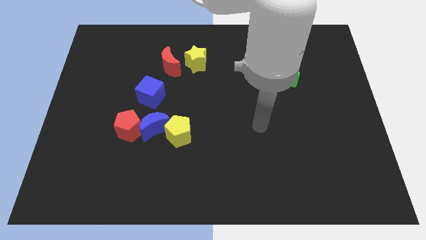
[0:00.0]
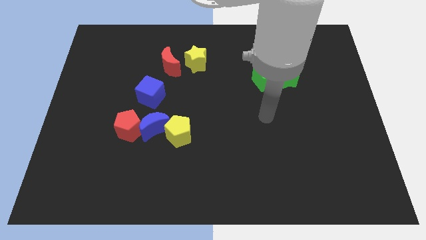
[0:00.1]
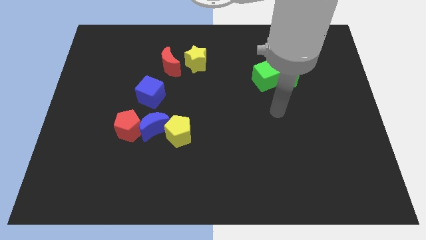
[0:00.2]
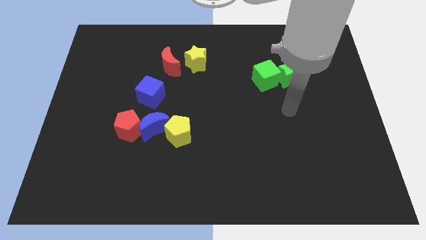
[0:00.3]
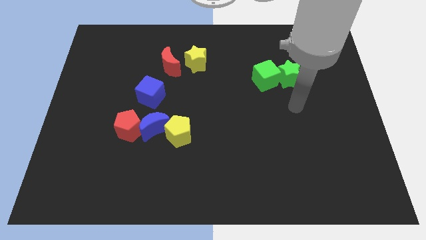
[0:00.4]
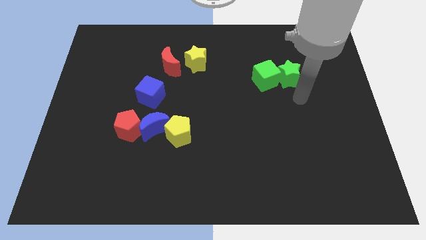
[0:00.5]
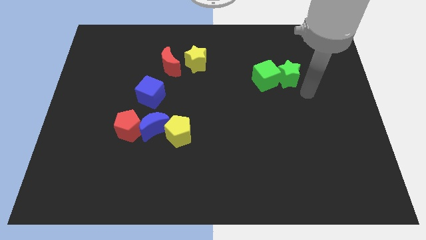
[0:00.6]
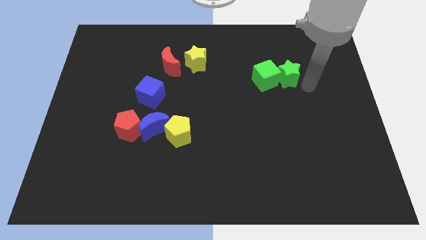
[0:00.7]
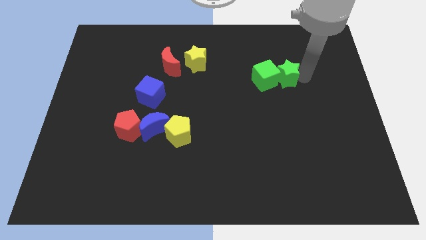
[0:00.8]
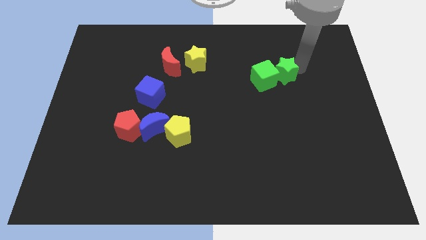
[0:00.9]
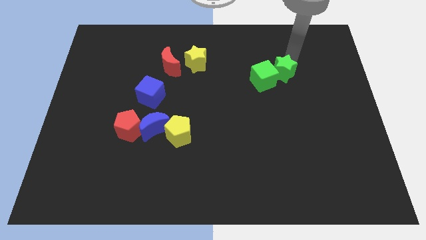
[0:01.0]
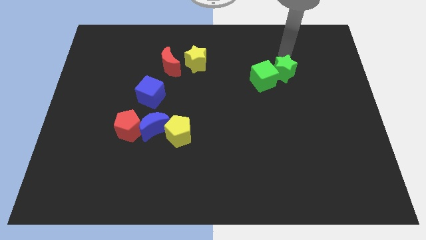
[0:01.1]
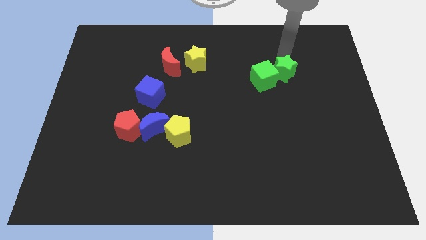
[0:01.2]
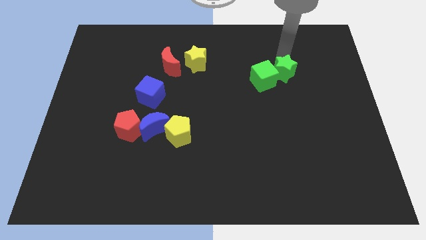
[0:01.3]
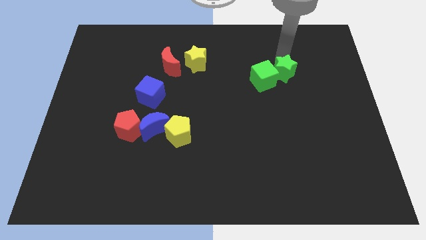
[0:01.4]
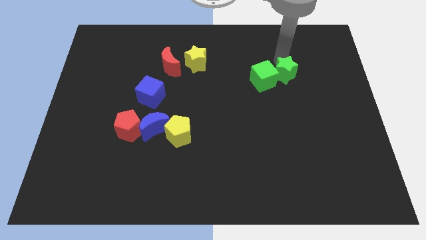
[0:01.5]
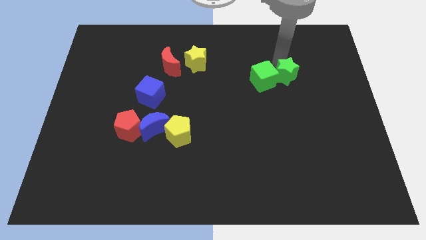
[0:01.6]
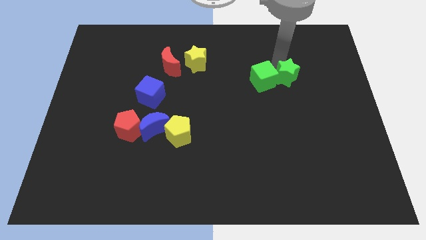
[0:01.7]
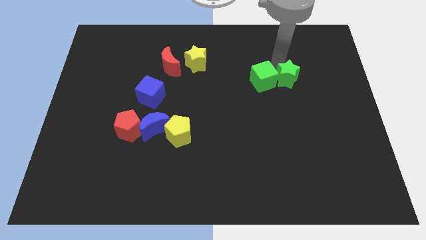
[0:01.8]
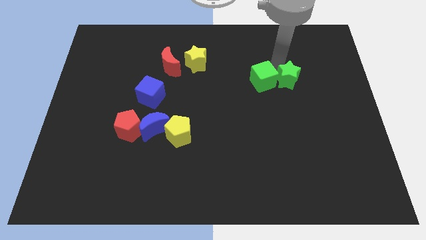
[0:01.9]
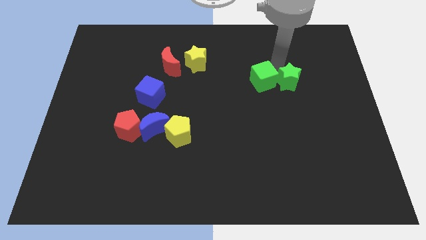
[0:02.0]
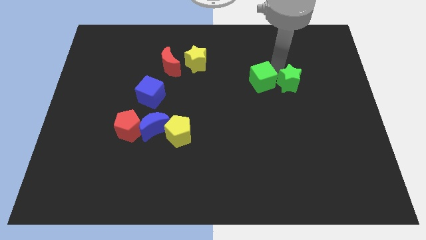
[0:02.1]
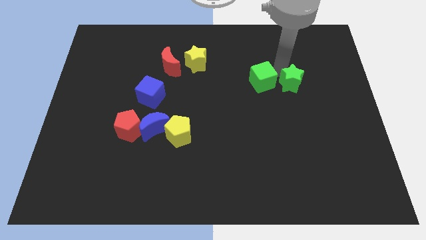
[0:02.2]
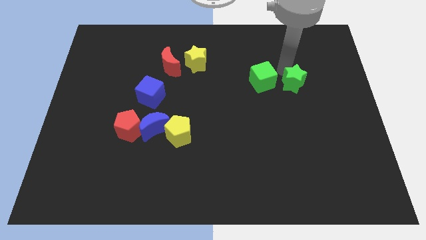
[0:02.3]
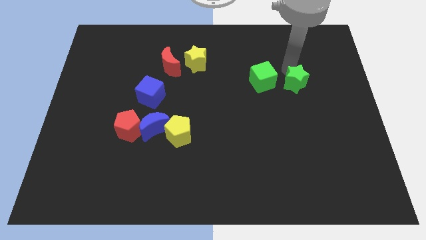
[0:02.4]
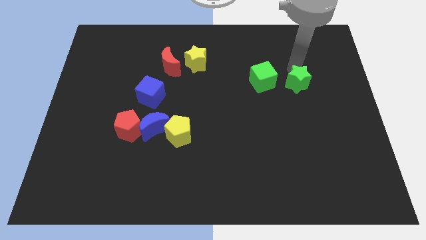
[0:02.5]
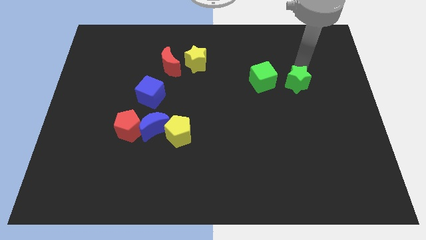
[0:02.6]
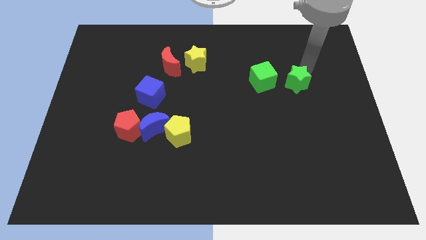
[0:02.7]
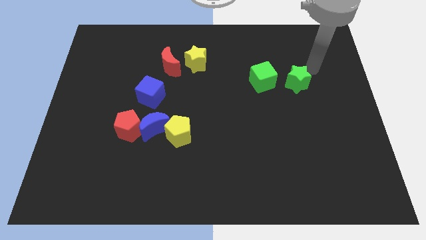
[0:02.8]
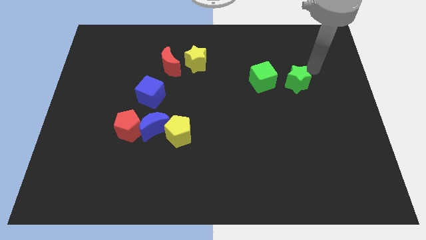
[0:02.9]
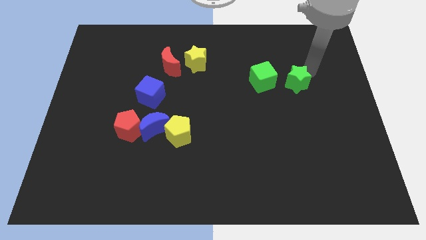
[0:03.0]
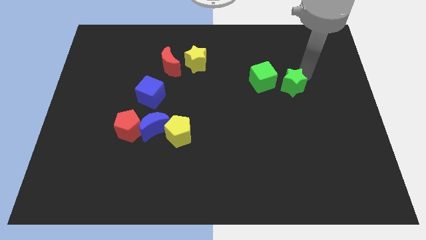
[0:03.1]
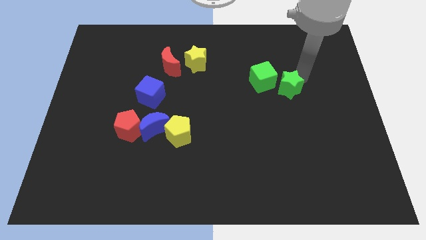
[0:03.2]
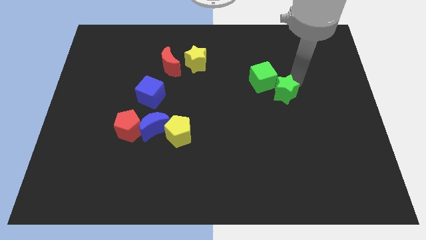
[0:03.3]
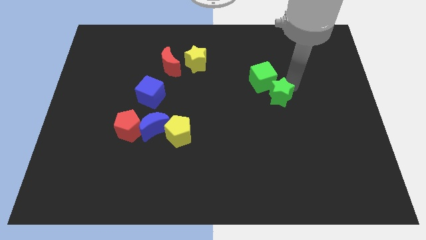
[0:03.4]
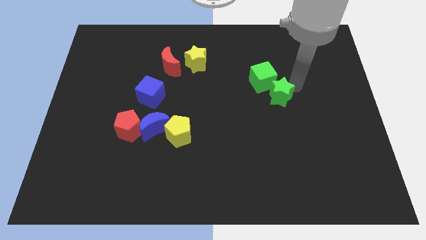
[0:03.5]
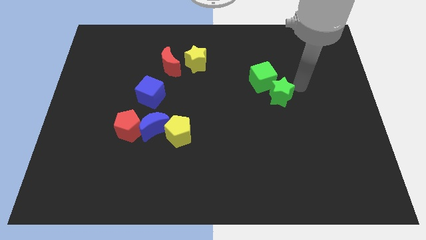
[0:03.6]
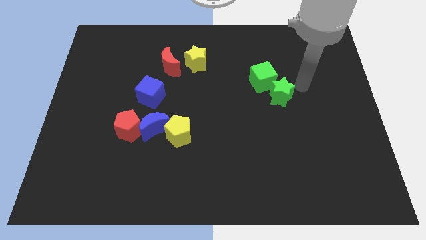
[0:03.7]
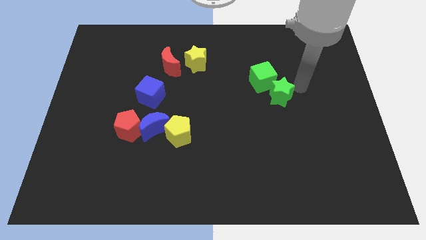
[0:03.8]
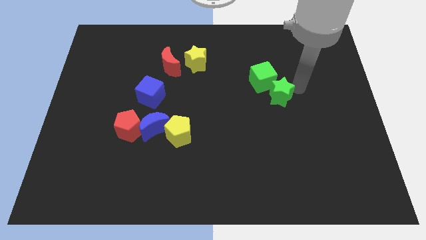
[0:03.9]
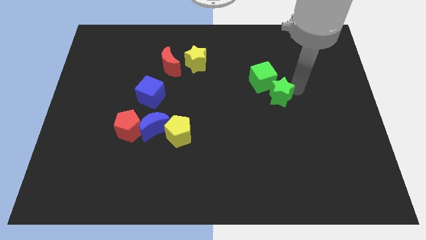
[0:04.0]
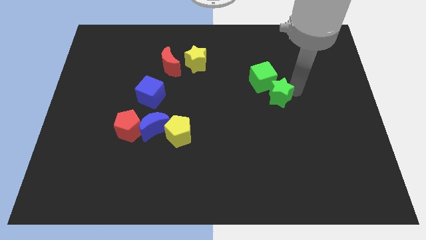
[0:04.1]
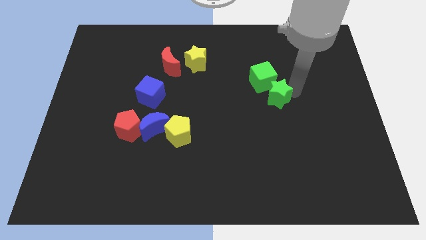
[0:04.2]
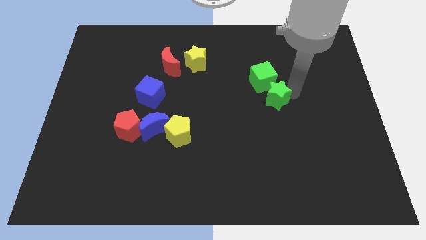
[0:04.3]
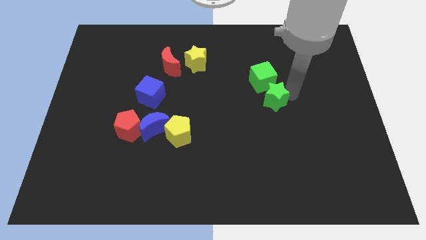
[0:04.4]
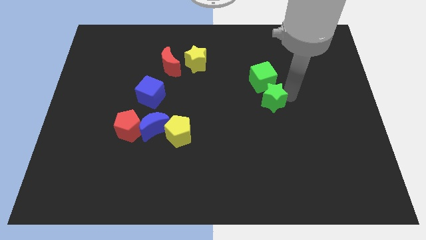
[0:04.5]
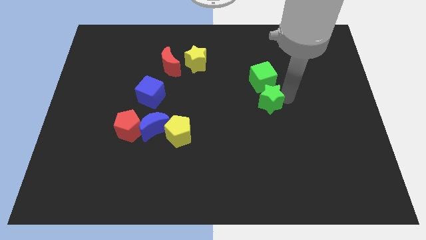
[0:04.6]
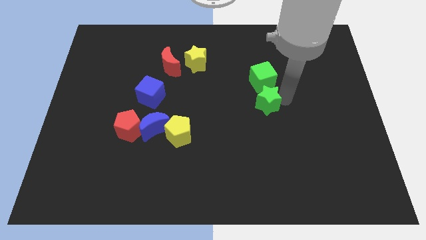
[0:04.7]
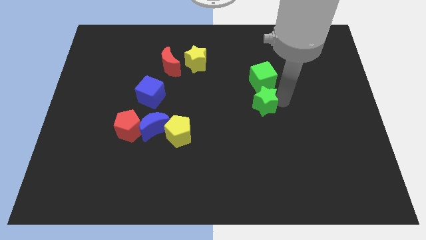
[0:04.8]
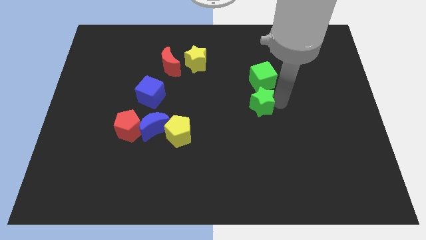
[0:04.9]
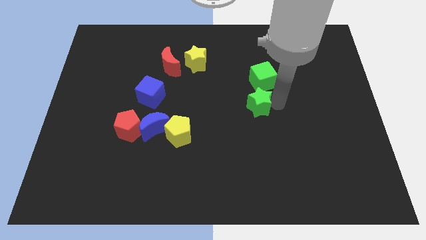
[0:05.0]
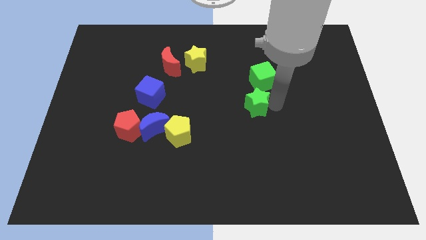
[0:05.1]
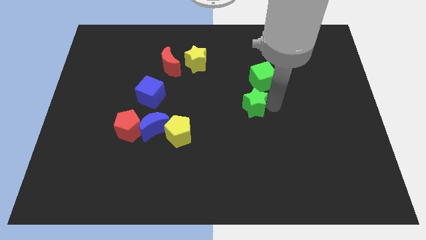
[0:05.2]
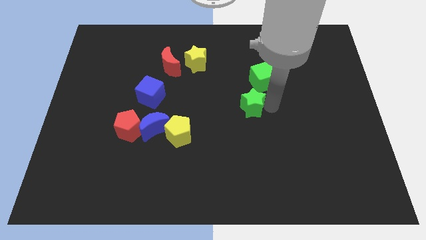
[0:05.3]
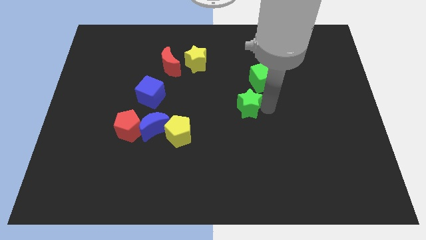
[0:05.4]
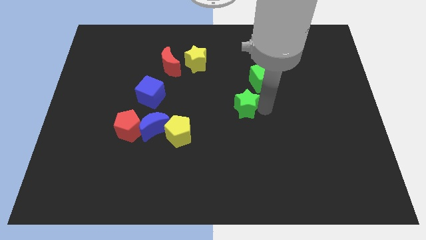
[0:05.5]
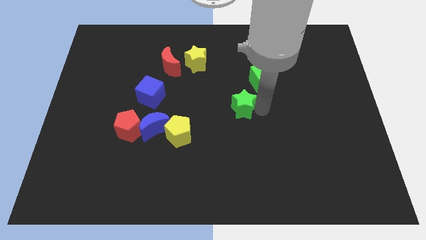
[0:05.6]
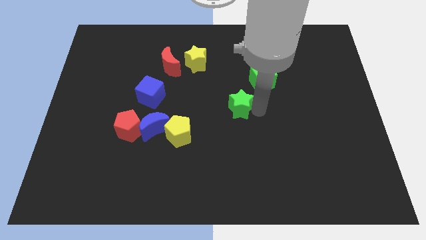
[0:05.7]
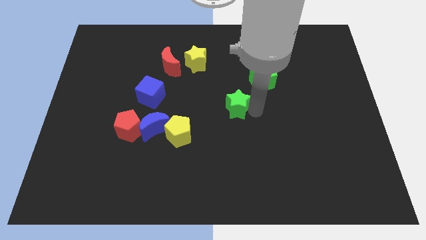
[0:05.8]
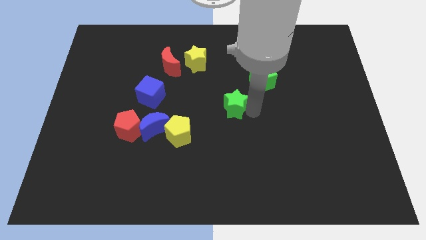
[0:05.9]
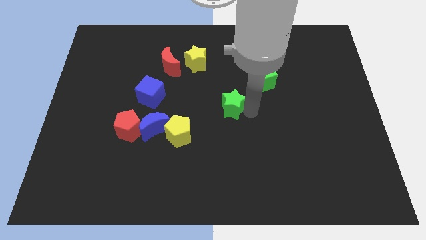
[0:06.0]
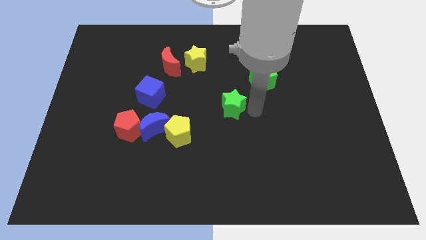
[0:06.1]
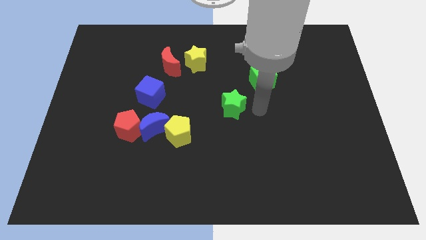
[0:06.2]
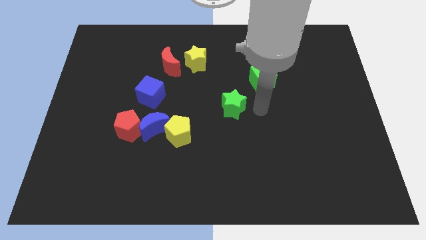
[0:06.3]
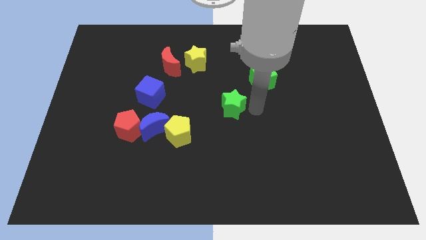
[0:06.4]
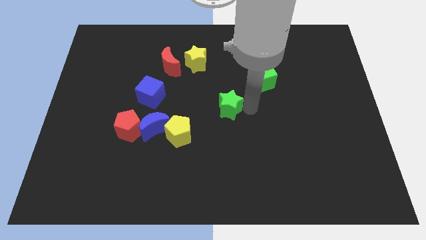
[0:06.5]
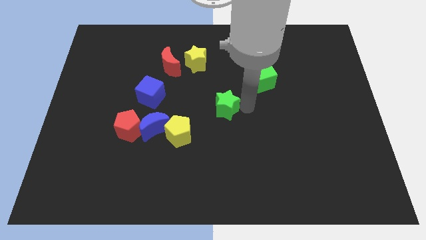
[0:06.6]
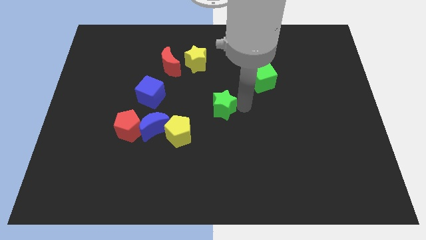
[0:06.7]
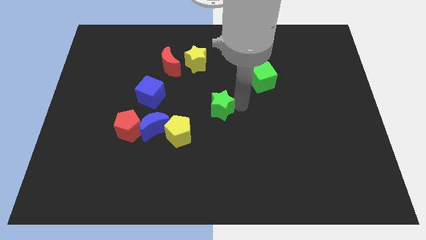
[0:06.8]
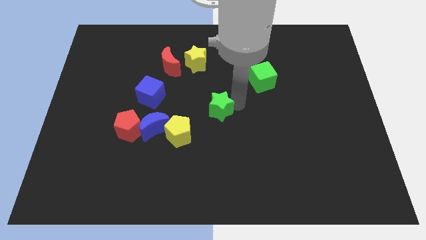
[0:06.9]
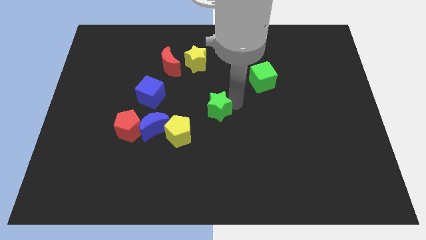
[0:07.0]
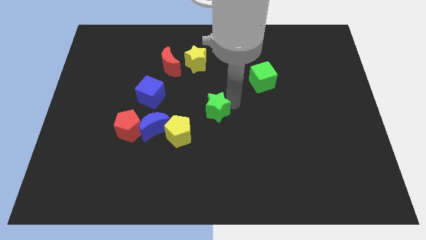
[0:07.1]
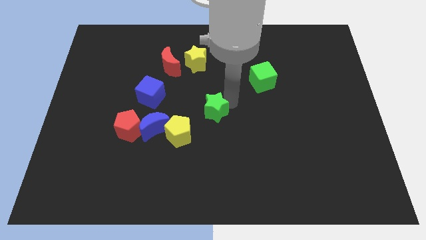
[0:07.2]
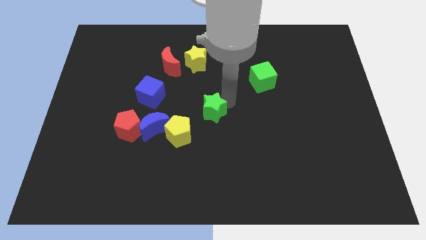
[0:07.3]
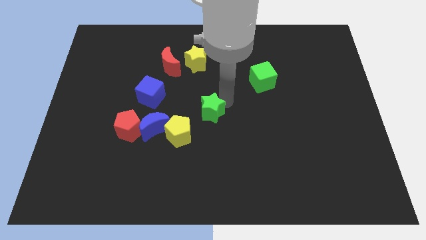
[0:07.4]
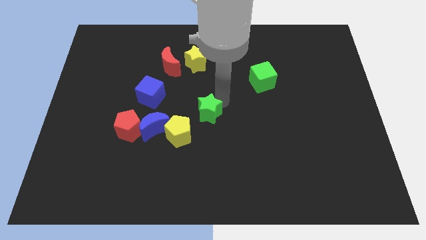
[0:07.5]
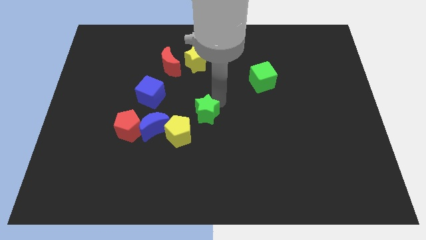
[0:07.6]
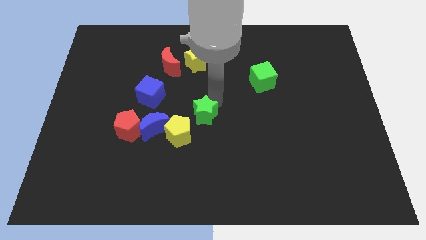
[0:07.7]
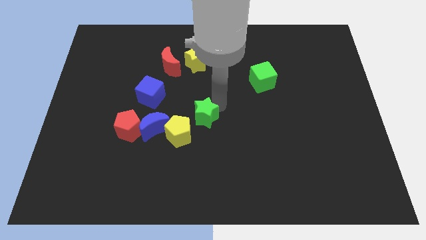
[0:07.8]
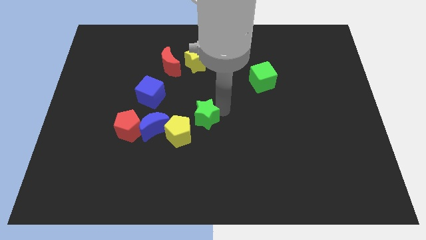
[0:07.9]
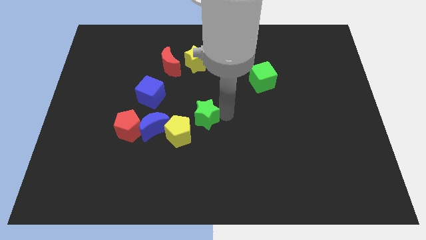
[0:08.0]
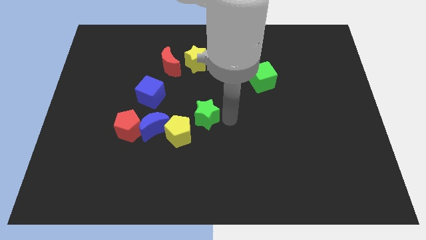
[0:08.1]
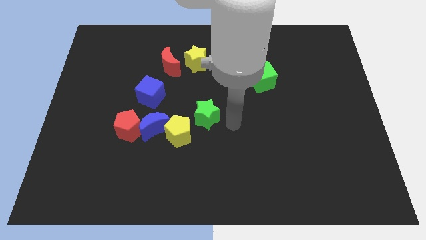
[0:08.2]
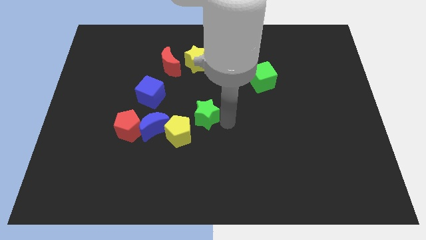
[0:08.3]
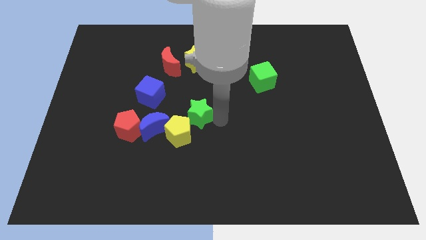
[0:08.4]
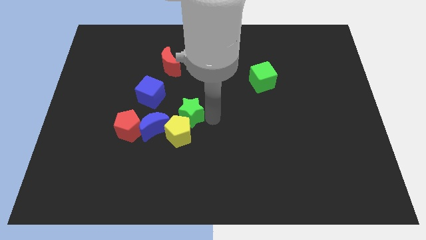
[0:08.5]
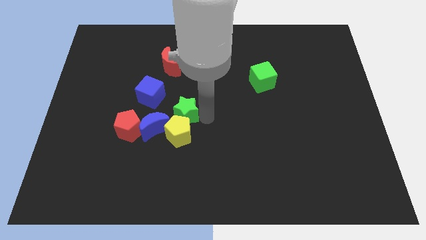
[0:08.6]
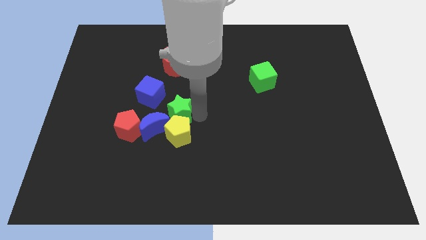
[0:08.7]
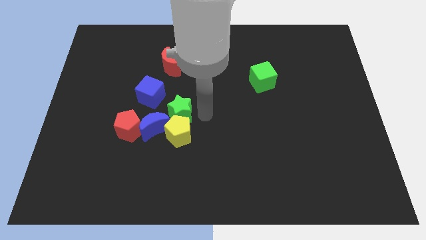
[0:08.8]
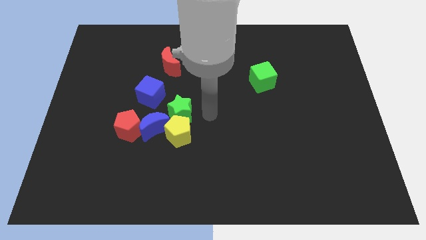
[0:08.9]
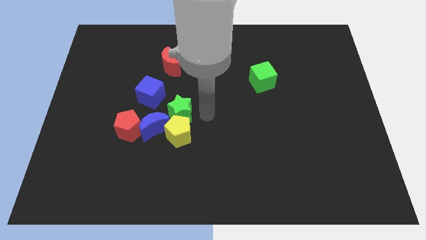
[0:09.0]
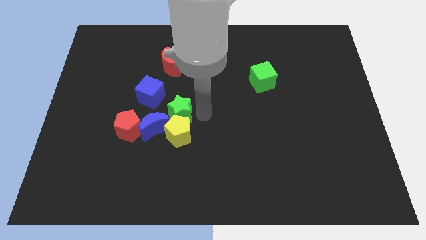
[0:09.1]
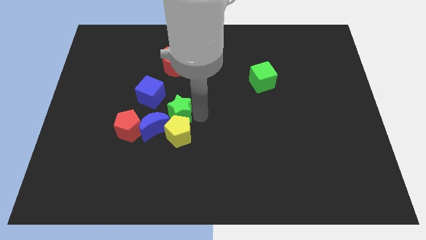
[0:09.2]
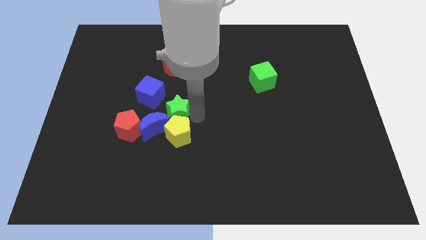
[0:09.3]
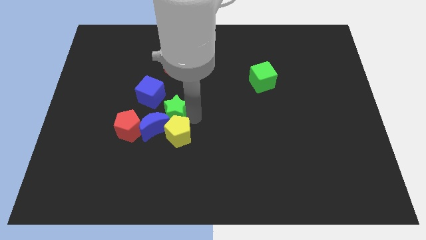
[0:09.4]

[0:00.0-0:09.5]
push the green star to the top right side of the red pentagon
